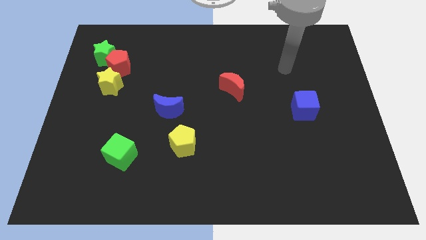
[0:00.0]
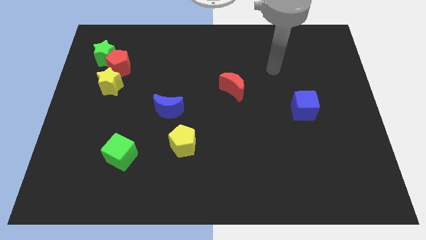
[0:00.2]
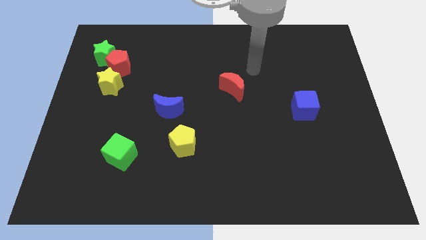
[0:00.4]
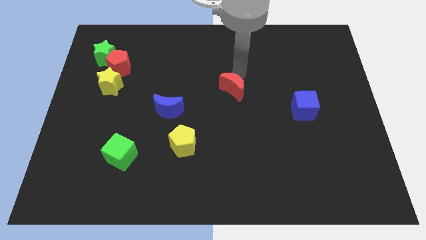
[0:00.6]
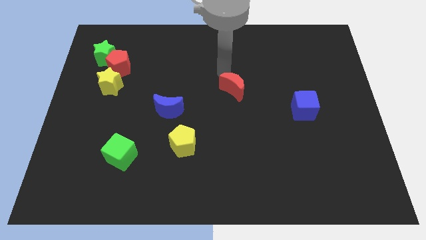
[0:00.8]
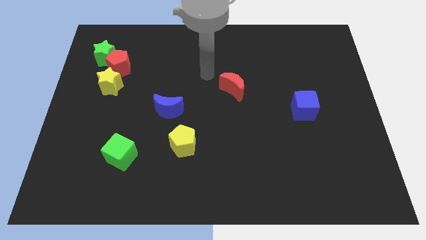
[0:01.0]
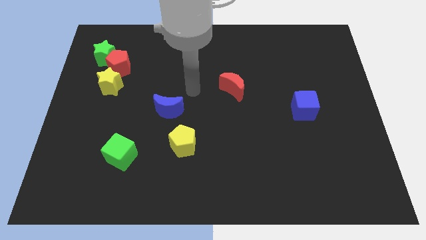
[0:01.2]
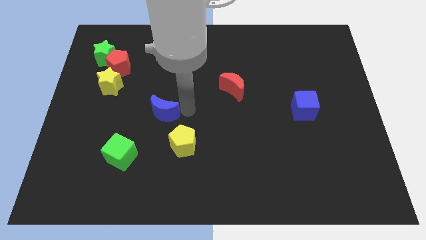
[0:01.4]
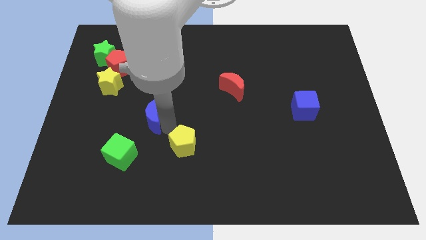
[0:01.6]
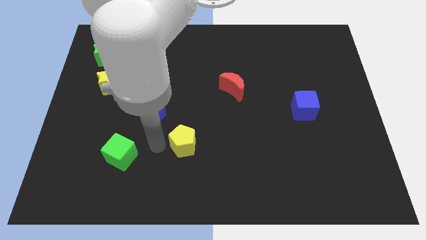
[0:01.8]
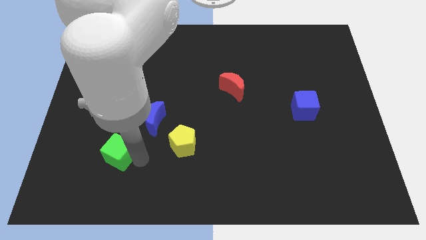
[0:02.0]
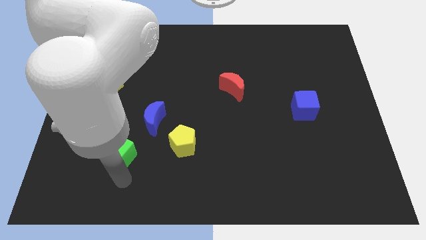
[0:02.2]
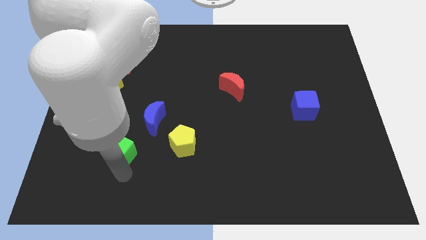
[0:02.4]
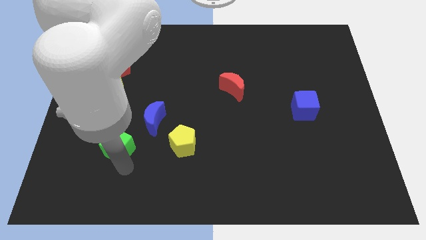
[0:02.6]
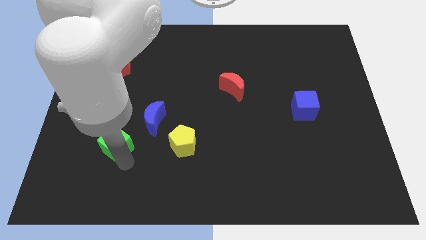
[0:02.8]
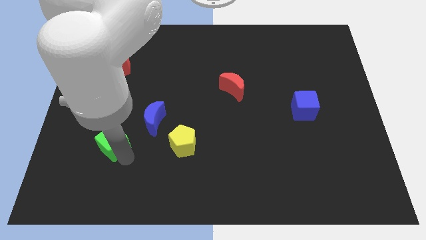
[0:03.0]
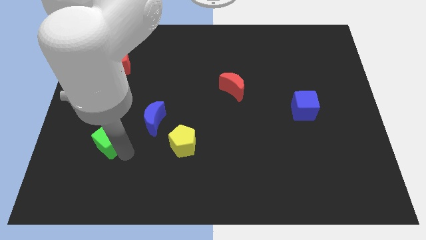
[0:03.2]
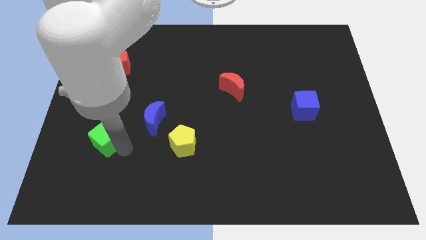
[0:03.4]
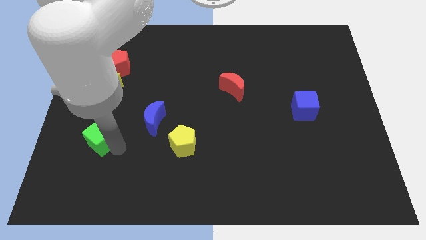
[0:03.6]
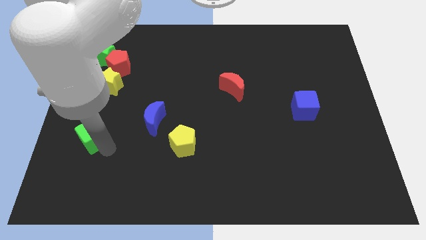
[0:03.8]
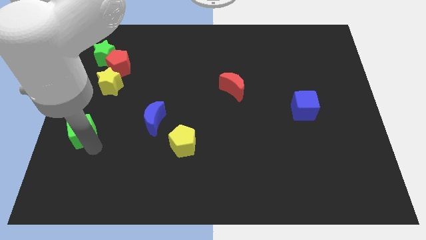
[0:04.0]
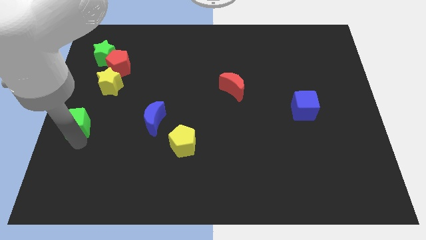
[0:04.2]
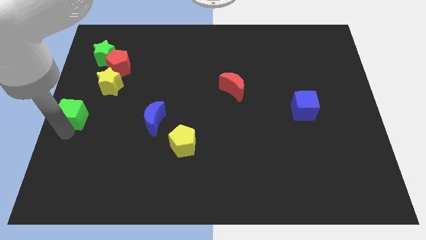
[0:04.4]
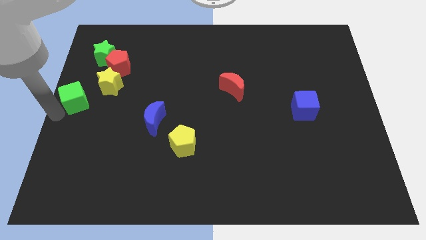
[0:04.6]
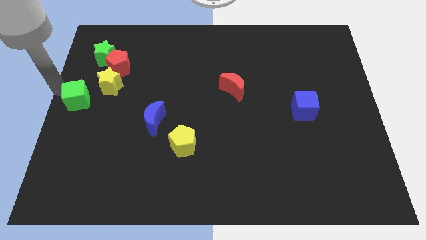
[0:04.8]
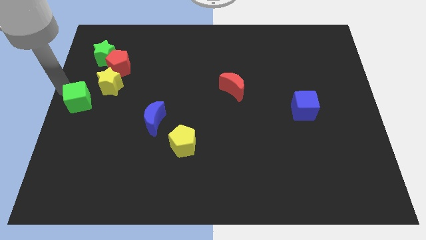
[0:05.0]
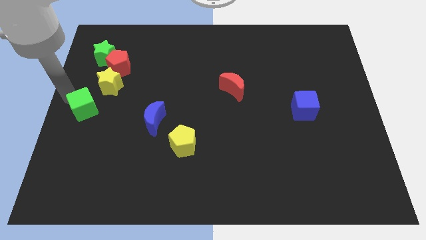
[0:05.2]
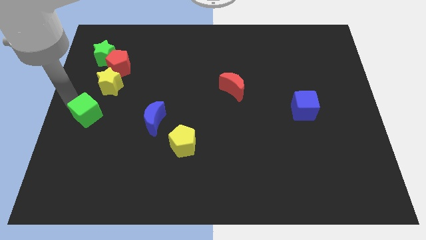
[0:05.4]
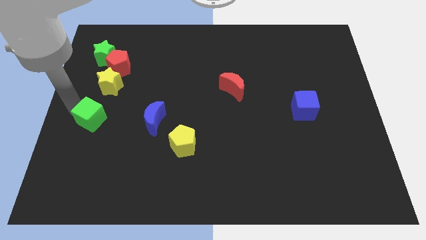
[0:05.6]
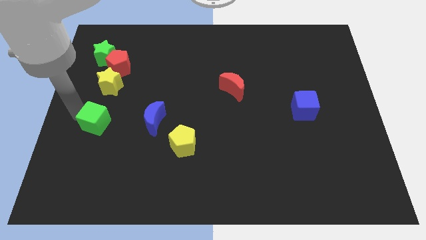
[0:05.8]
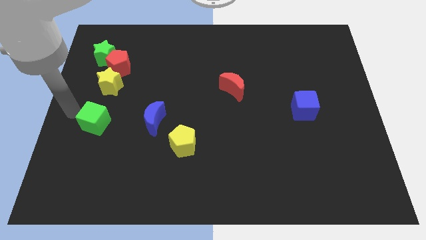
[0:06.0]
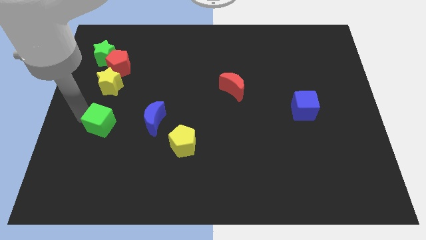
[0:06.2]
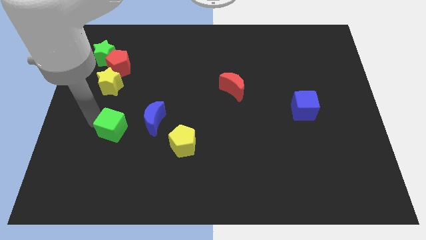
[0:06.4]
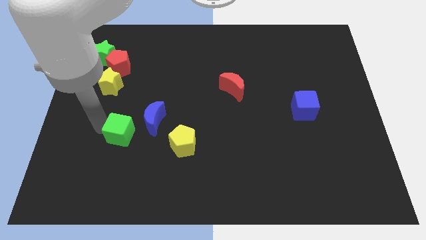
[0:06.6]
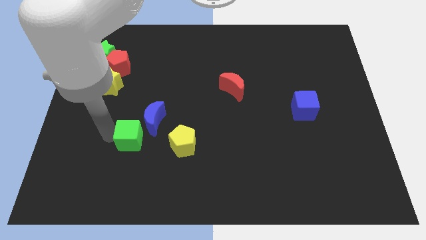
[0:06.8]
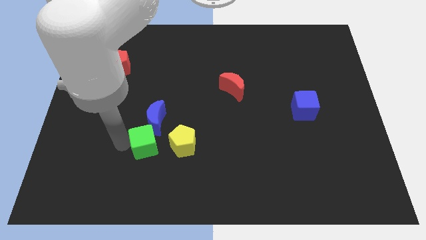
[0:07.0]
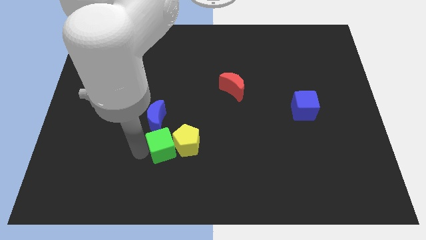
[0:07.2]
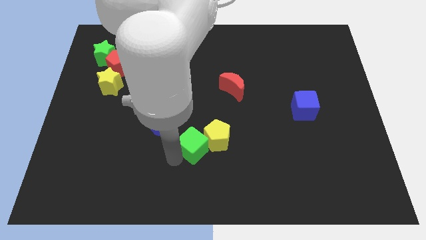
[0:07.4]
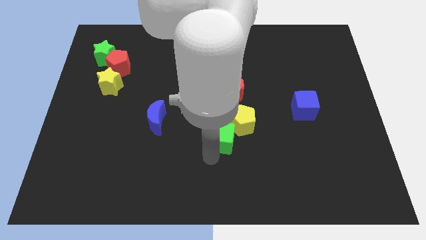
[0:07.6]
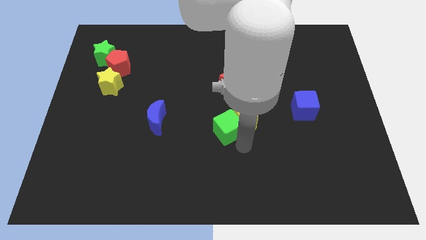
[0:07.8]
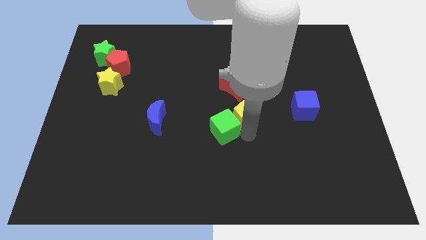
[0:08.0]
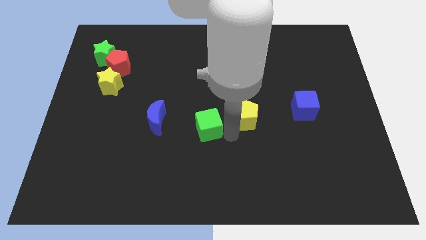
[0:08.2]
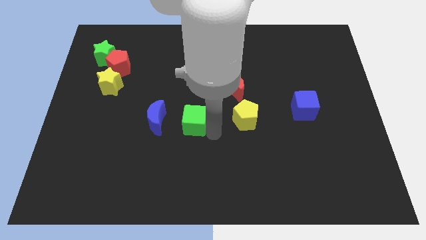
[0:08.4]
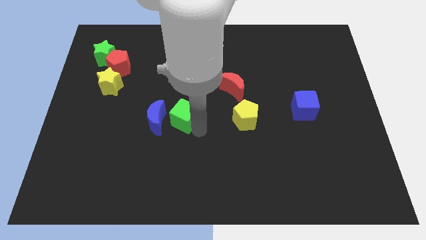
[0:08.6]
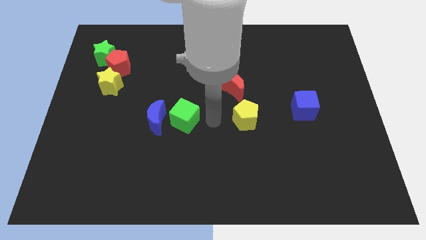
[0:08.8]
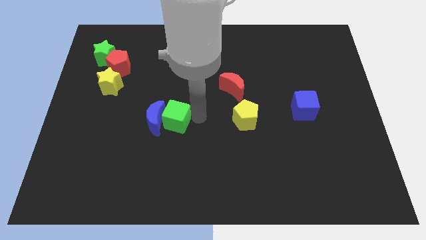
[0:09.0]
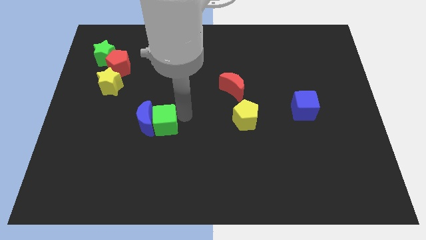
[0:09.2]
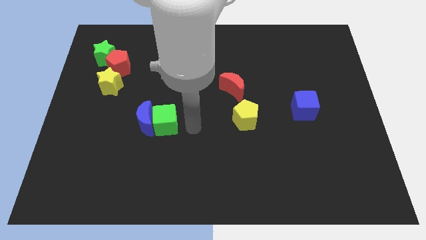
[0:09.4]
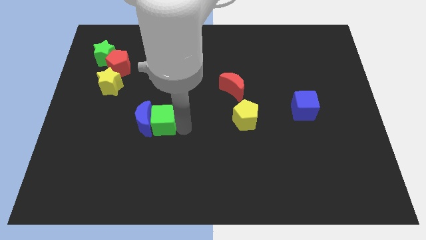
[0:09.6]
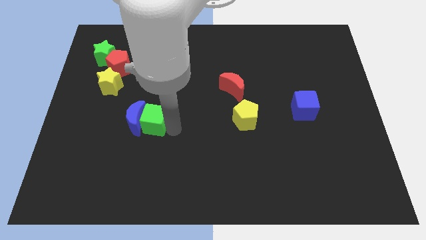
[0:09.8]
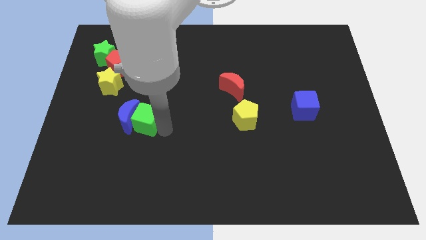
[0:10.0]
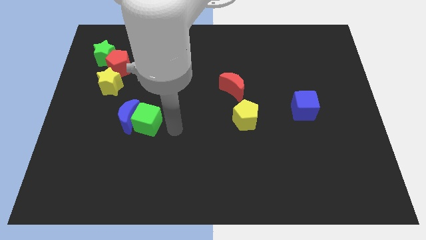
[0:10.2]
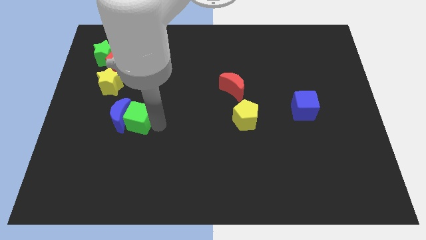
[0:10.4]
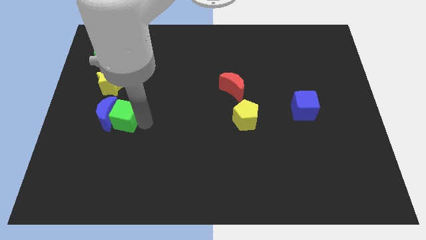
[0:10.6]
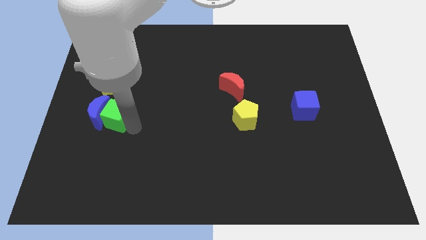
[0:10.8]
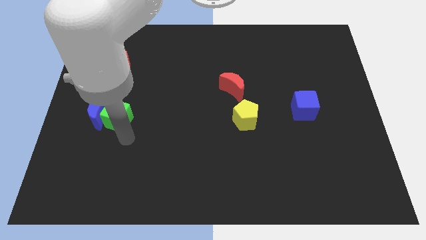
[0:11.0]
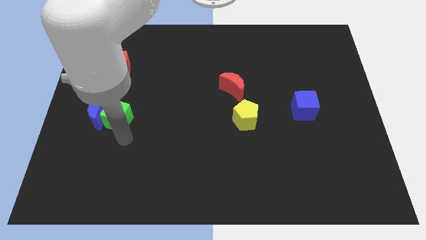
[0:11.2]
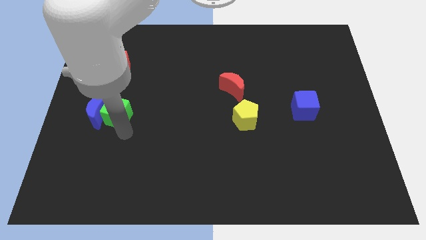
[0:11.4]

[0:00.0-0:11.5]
push the green cube below the red pentagon

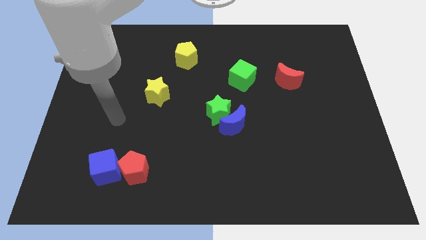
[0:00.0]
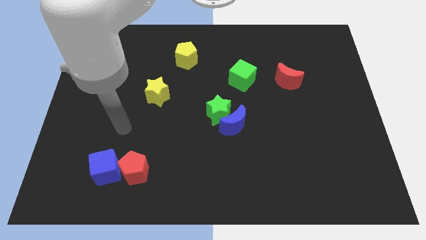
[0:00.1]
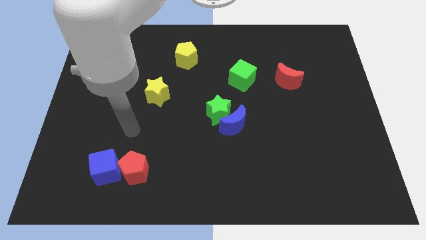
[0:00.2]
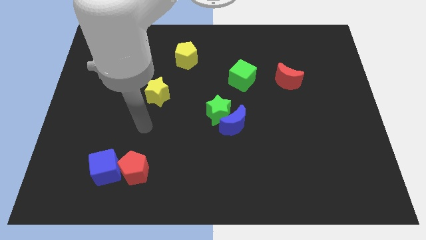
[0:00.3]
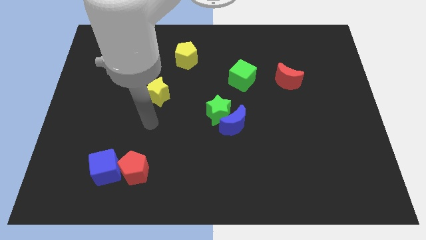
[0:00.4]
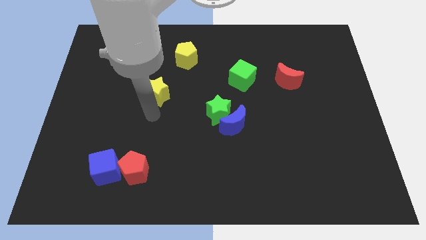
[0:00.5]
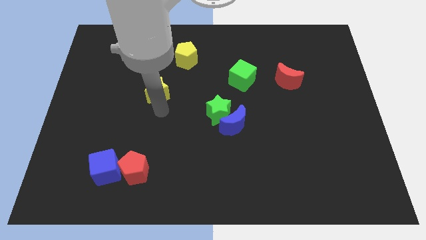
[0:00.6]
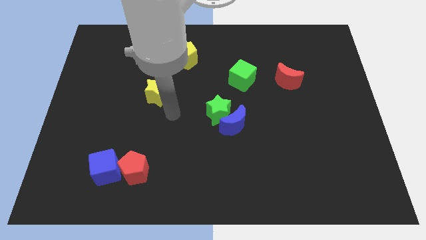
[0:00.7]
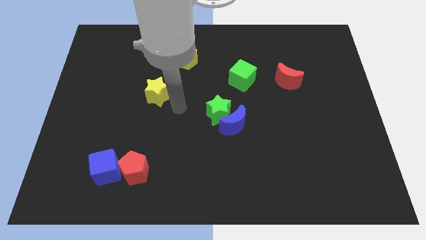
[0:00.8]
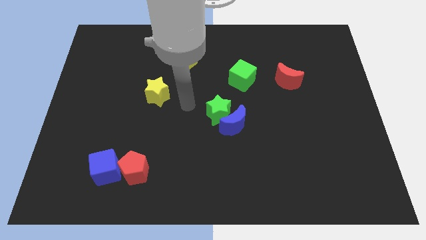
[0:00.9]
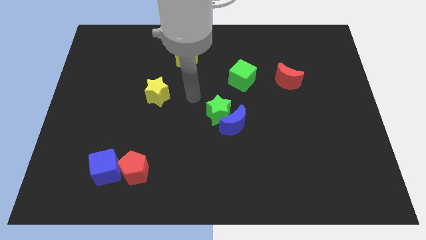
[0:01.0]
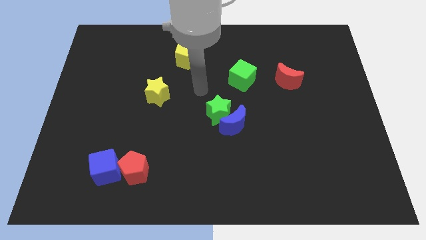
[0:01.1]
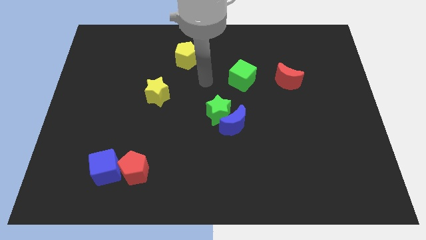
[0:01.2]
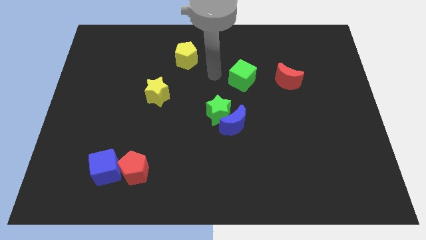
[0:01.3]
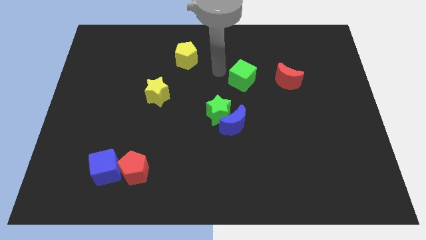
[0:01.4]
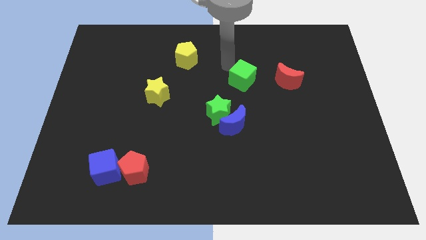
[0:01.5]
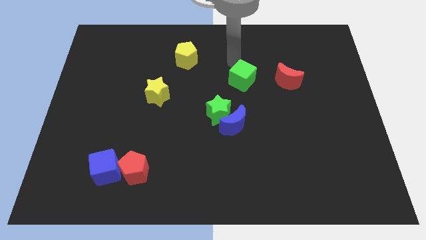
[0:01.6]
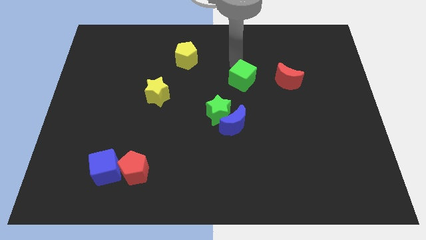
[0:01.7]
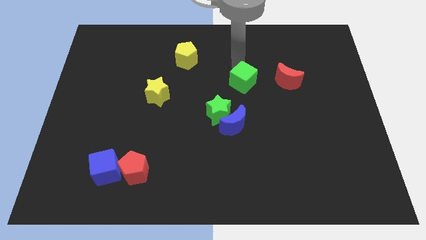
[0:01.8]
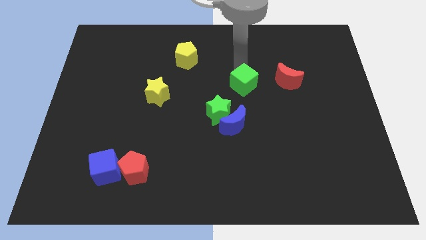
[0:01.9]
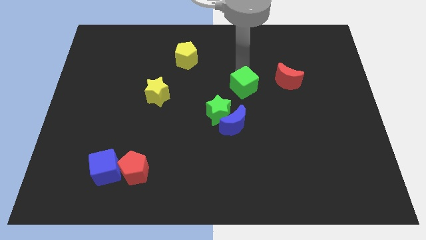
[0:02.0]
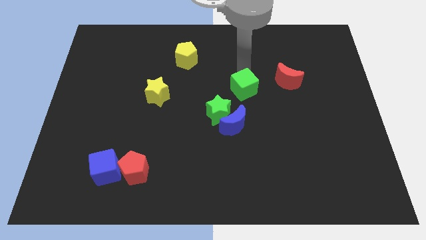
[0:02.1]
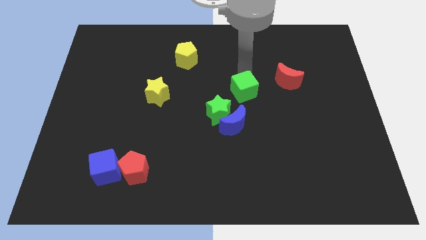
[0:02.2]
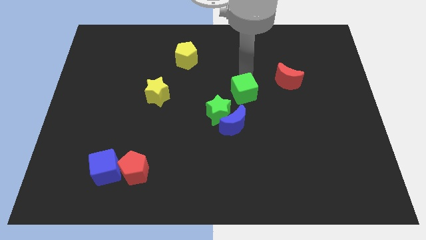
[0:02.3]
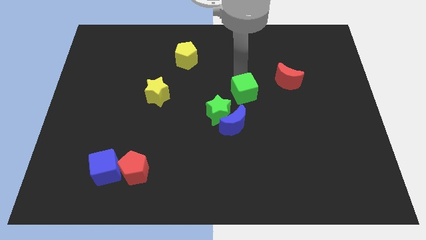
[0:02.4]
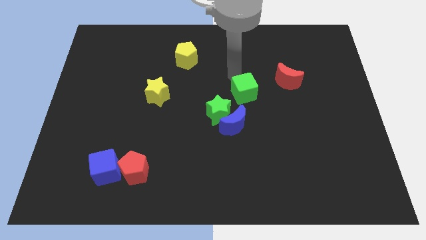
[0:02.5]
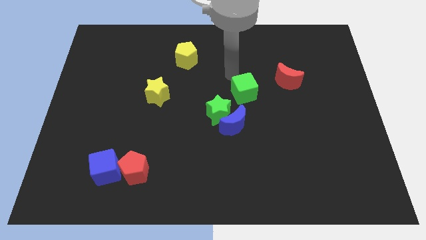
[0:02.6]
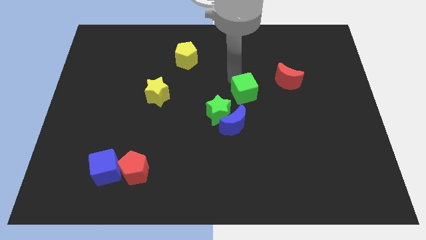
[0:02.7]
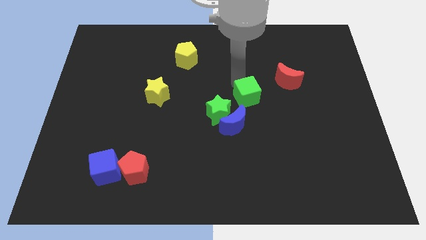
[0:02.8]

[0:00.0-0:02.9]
put the green cube to the top right side of the blue moon
